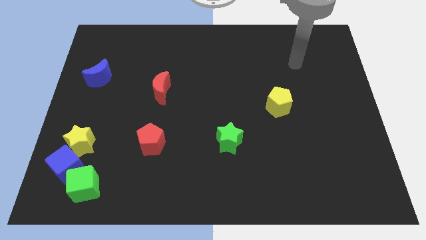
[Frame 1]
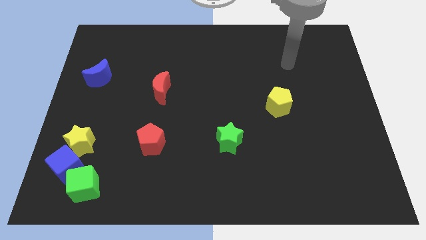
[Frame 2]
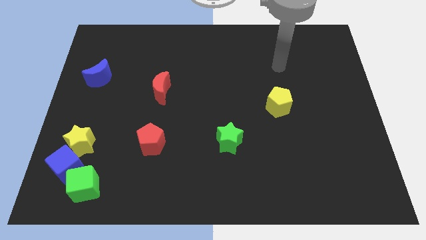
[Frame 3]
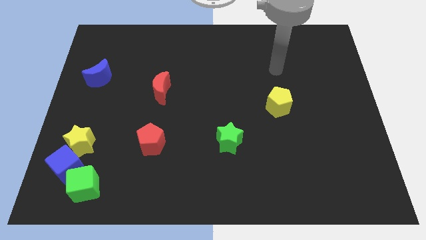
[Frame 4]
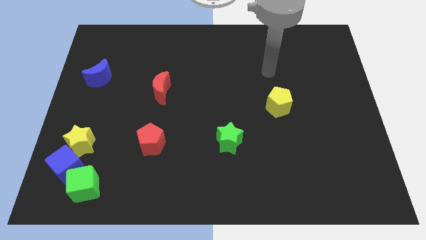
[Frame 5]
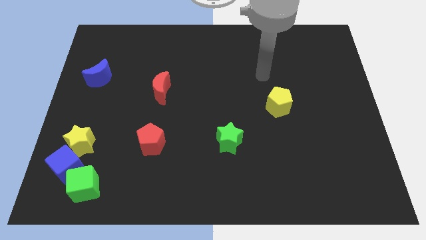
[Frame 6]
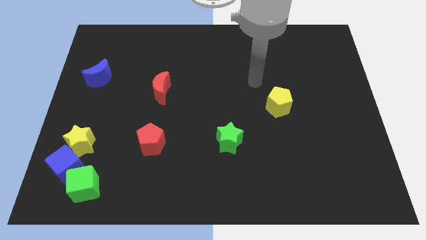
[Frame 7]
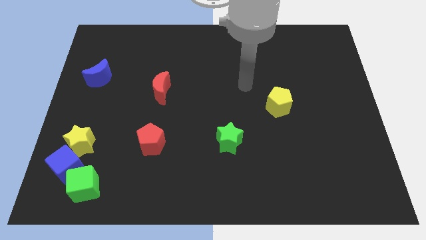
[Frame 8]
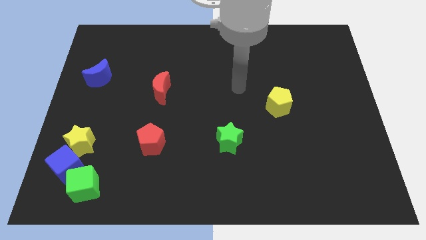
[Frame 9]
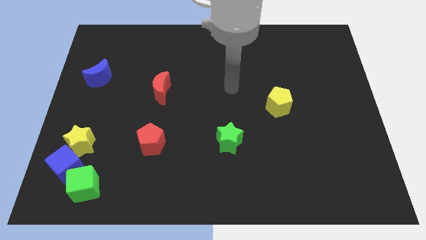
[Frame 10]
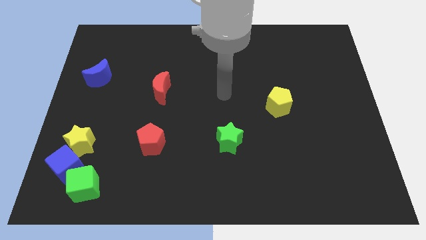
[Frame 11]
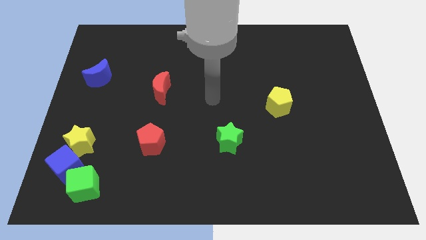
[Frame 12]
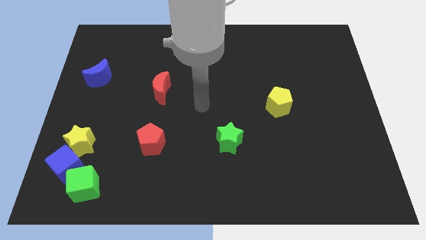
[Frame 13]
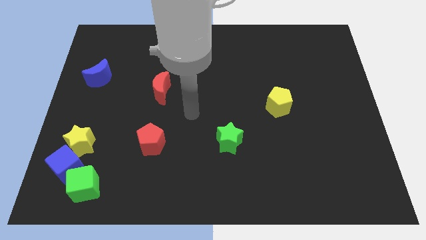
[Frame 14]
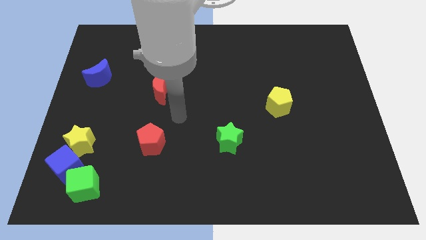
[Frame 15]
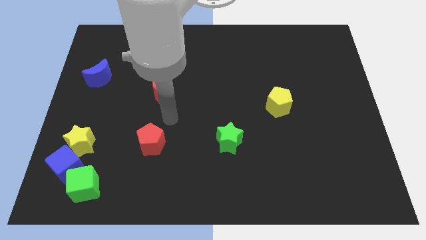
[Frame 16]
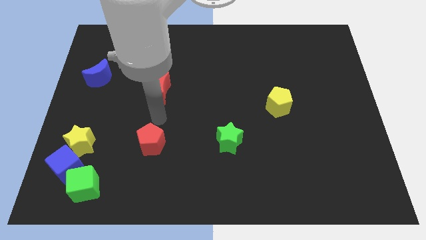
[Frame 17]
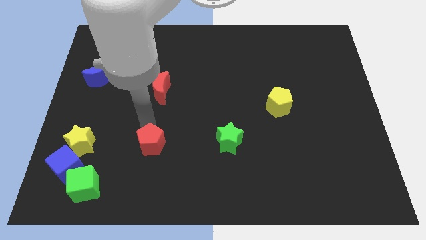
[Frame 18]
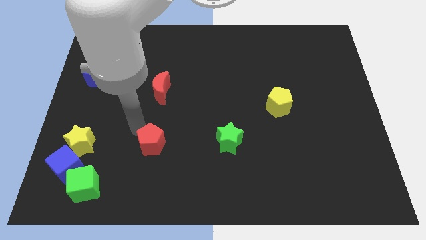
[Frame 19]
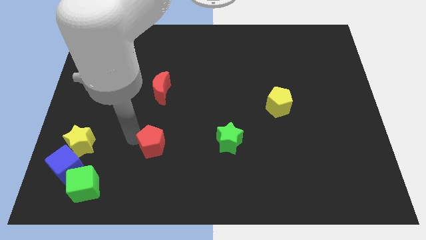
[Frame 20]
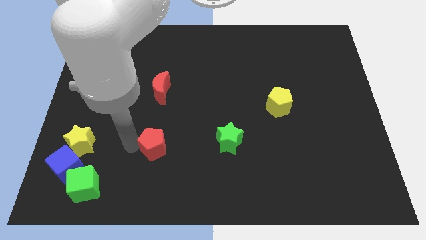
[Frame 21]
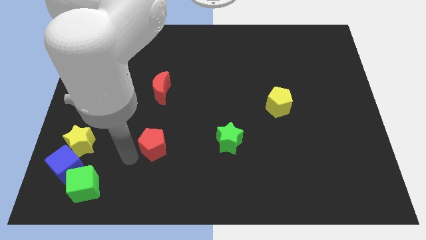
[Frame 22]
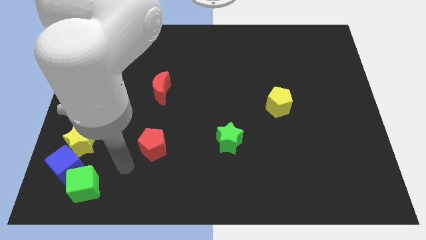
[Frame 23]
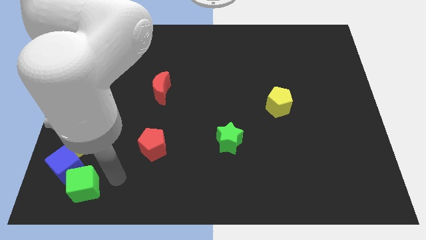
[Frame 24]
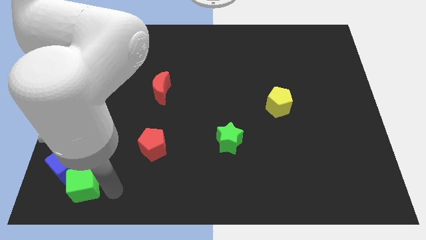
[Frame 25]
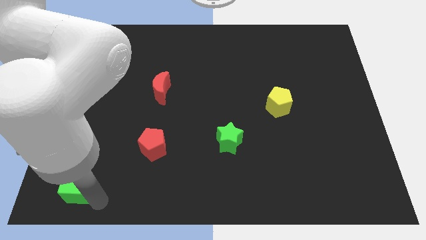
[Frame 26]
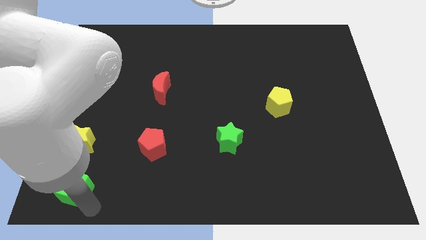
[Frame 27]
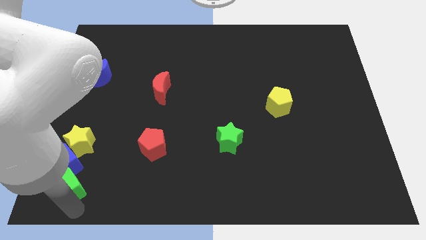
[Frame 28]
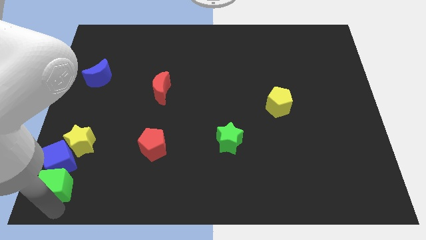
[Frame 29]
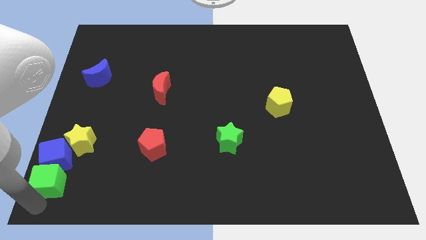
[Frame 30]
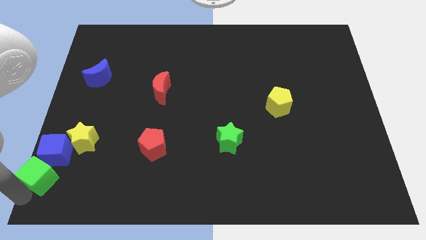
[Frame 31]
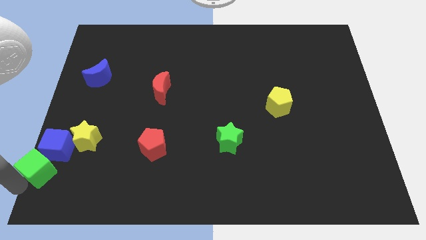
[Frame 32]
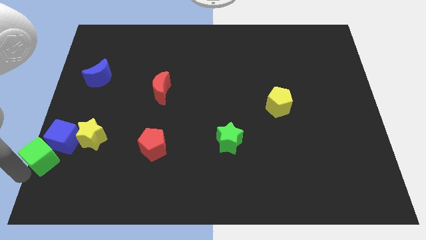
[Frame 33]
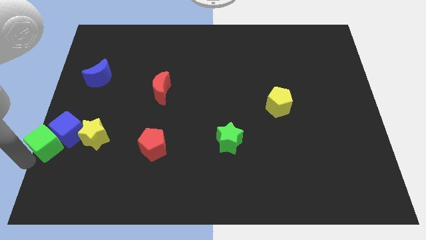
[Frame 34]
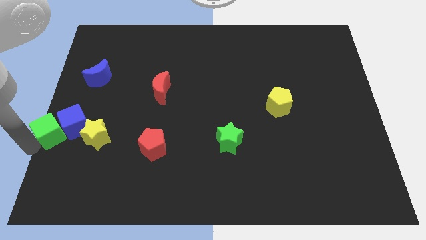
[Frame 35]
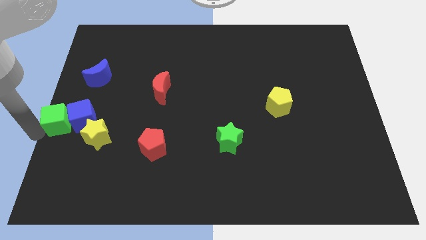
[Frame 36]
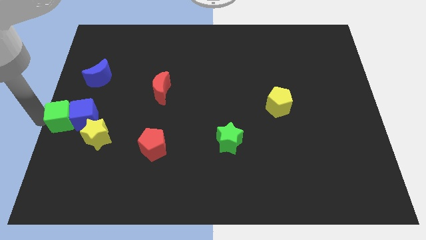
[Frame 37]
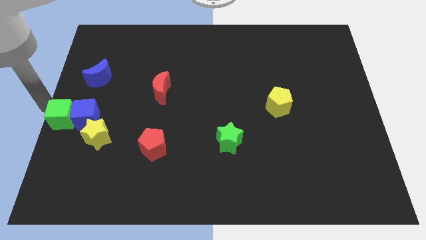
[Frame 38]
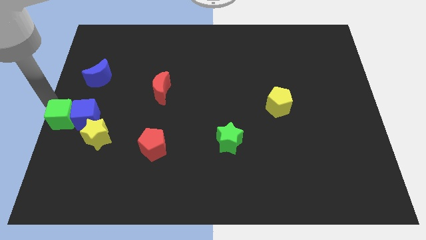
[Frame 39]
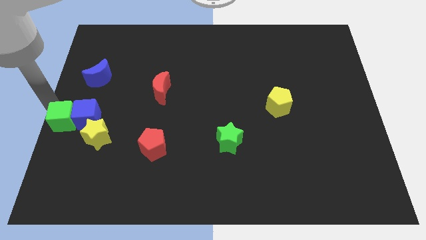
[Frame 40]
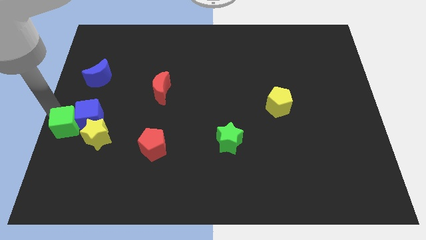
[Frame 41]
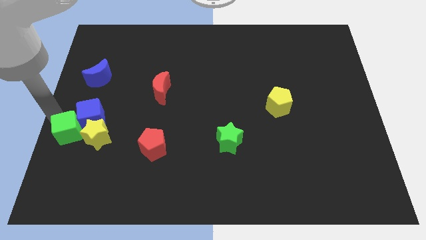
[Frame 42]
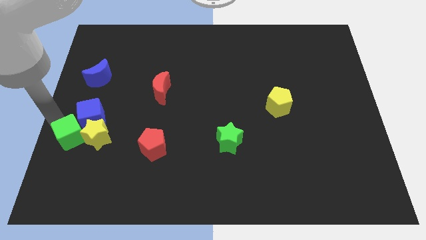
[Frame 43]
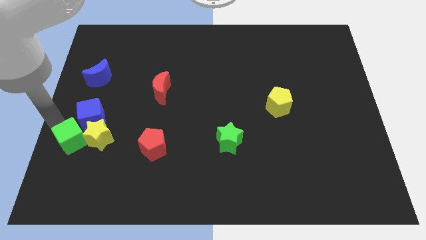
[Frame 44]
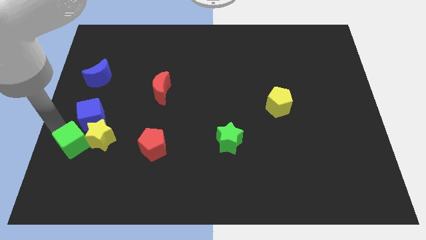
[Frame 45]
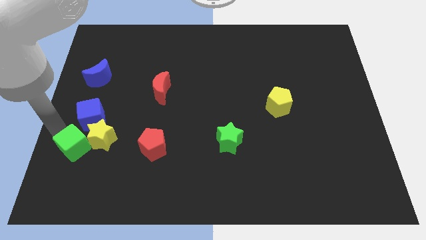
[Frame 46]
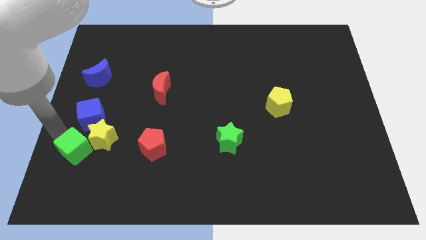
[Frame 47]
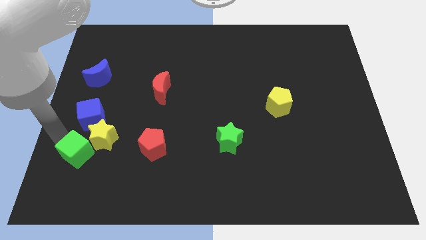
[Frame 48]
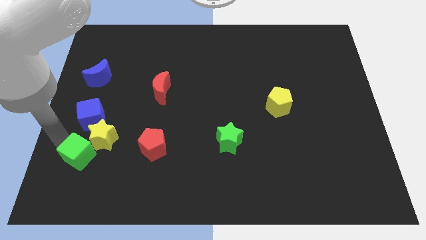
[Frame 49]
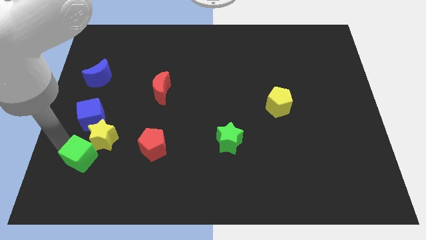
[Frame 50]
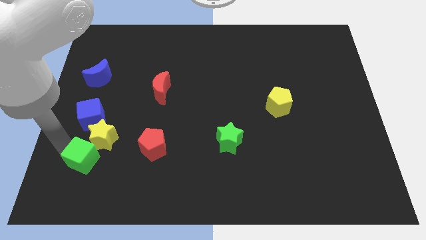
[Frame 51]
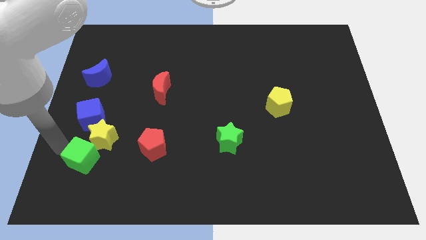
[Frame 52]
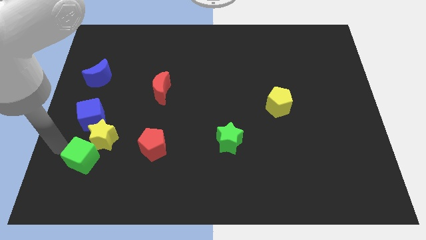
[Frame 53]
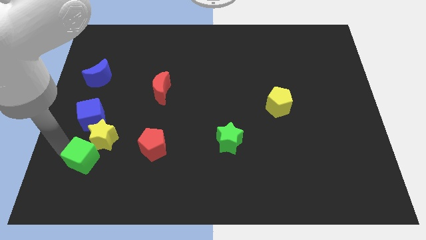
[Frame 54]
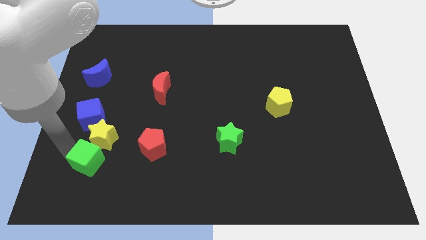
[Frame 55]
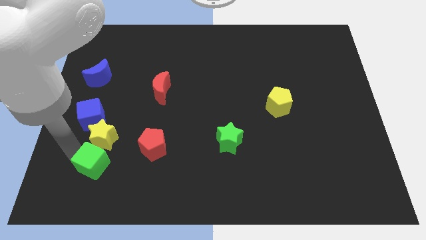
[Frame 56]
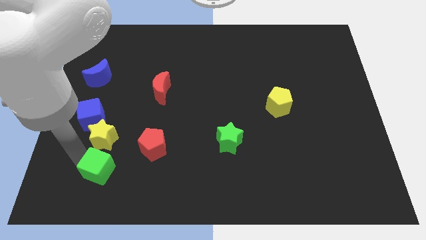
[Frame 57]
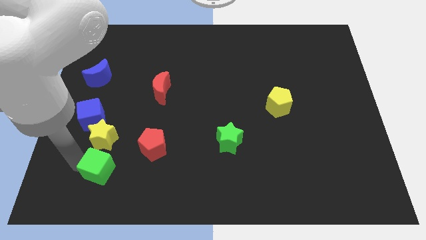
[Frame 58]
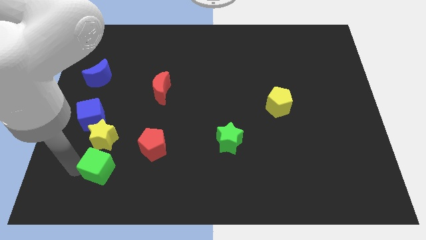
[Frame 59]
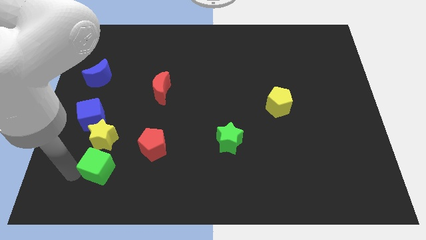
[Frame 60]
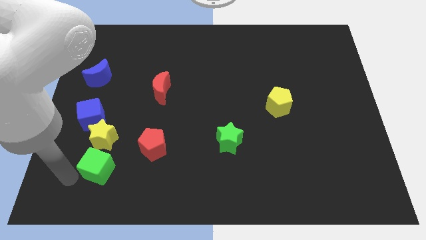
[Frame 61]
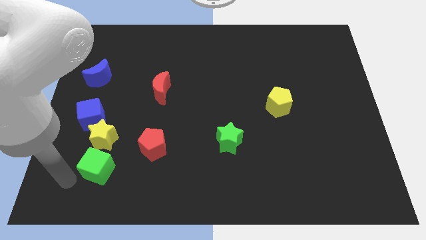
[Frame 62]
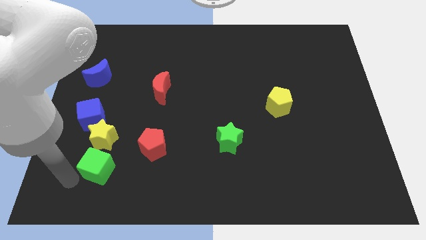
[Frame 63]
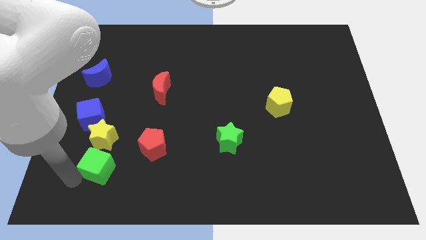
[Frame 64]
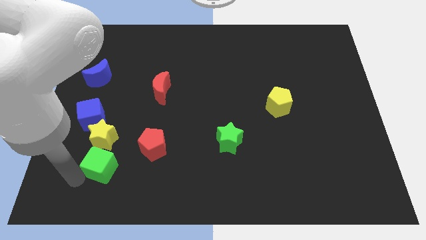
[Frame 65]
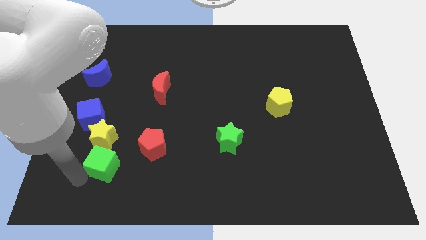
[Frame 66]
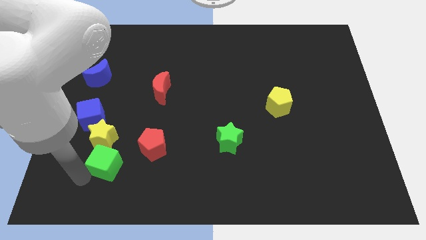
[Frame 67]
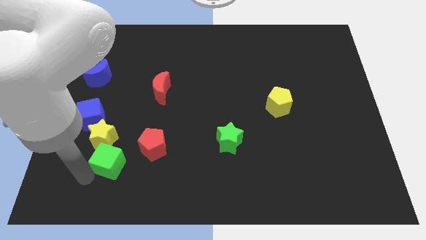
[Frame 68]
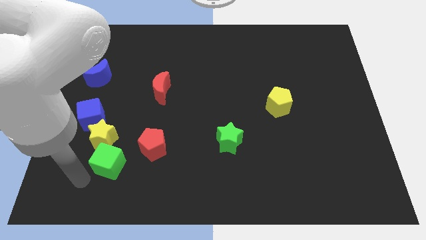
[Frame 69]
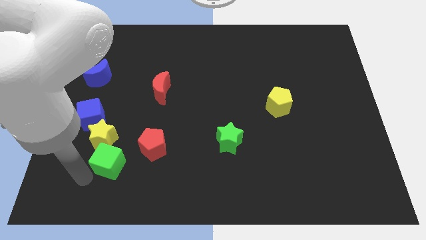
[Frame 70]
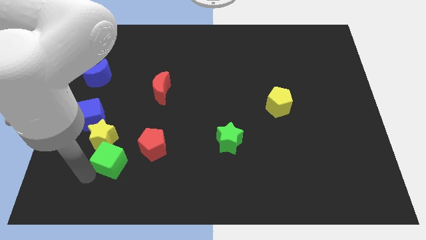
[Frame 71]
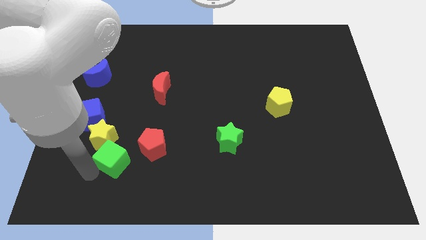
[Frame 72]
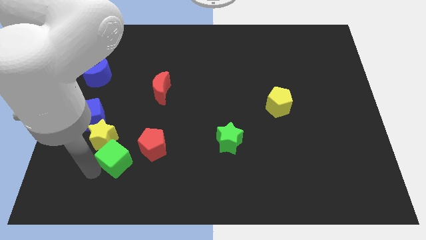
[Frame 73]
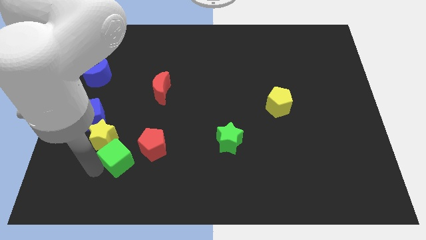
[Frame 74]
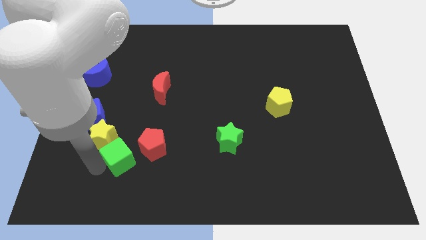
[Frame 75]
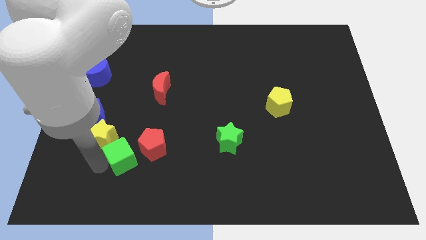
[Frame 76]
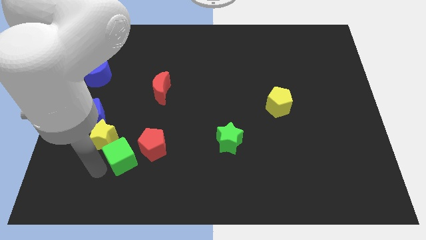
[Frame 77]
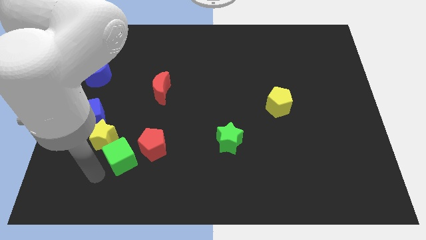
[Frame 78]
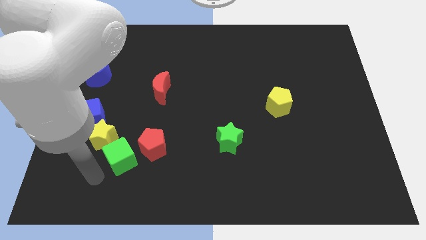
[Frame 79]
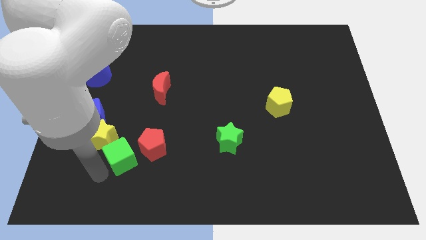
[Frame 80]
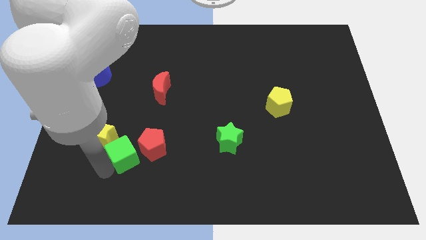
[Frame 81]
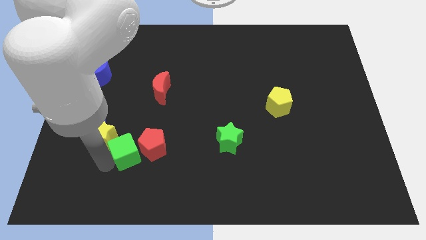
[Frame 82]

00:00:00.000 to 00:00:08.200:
put the green cube close to the red pentagon
